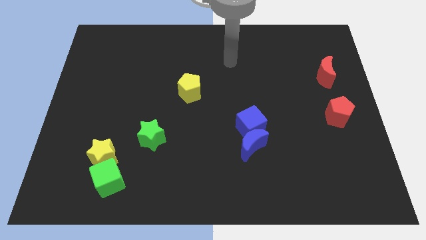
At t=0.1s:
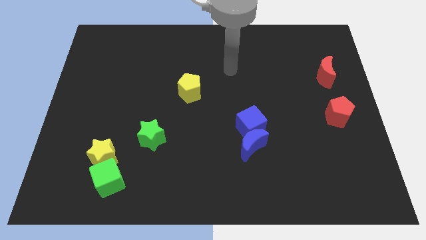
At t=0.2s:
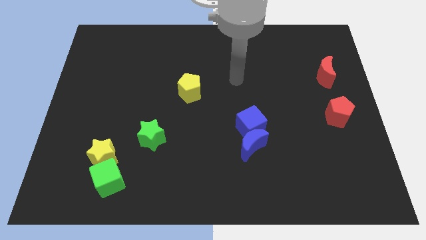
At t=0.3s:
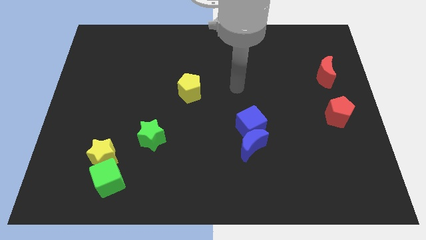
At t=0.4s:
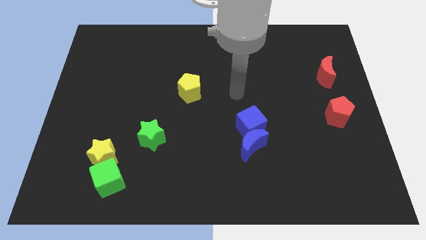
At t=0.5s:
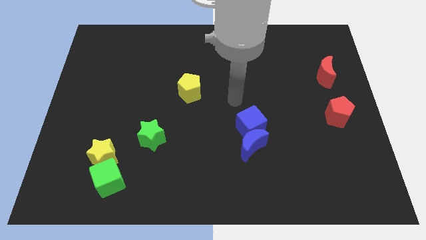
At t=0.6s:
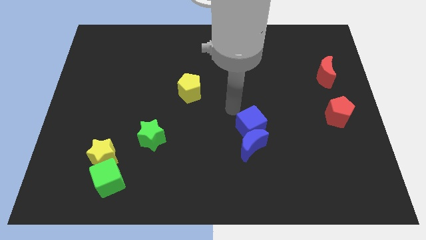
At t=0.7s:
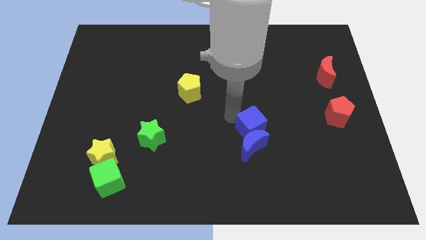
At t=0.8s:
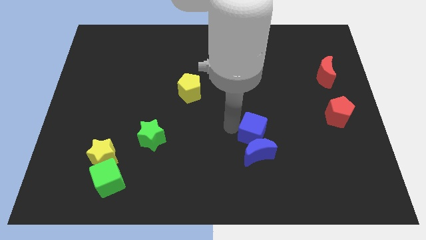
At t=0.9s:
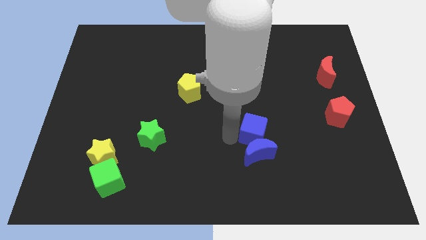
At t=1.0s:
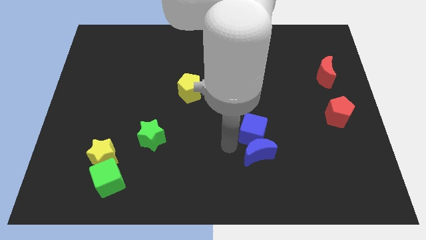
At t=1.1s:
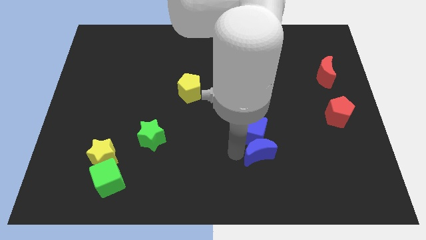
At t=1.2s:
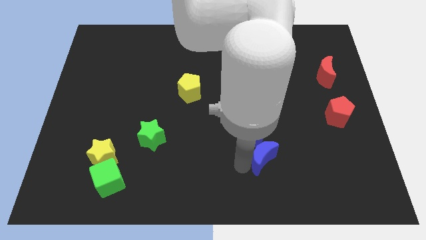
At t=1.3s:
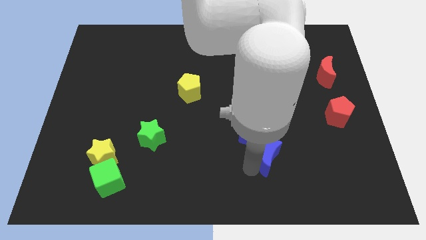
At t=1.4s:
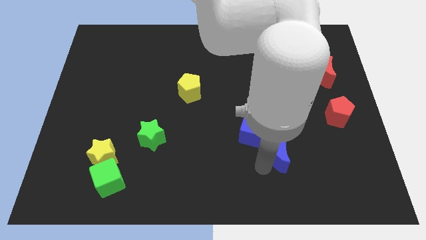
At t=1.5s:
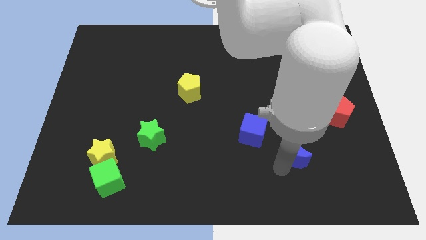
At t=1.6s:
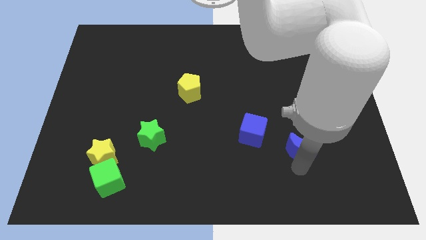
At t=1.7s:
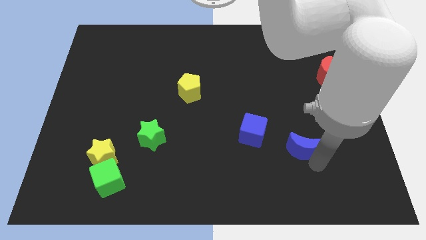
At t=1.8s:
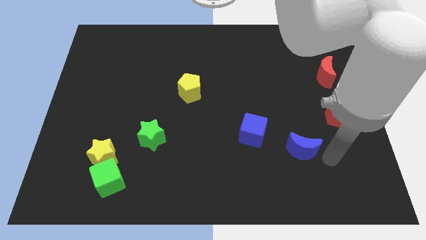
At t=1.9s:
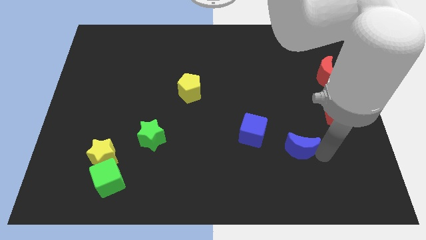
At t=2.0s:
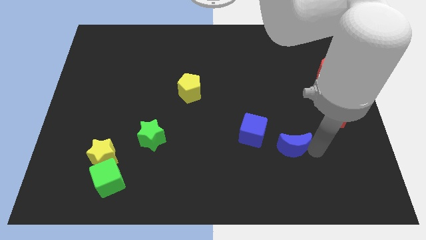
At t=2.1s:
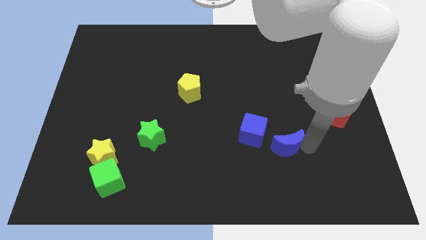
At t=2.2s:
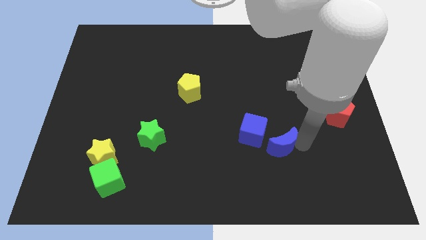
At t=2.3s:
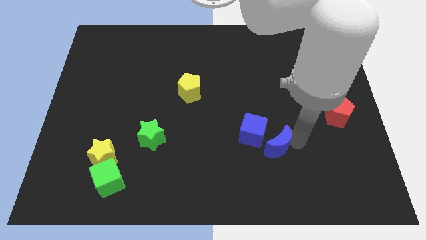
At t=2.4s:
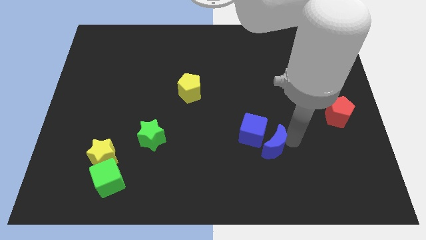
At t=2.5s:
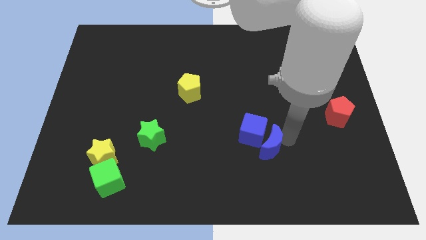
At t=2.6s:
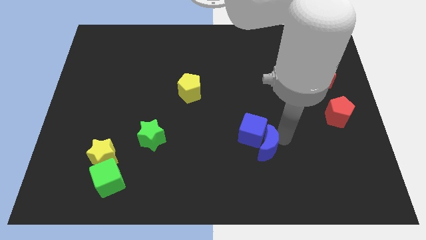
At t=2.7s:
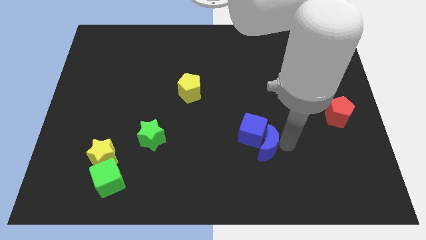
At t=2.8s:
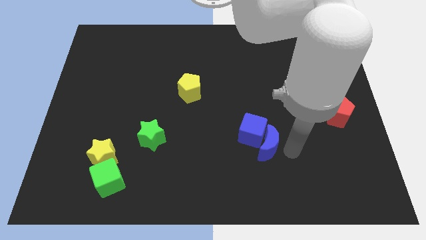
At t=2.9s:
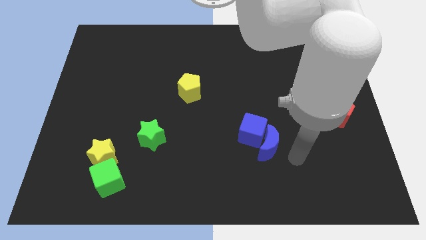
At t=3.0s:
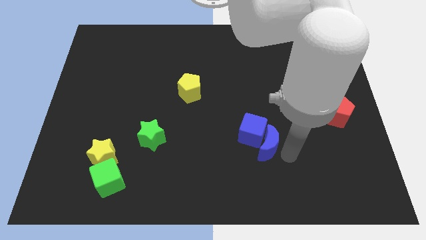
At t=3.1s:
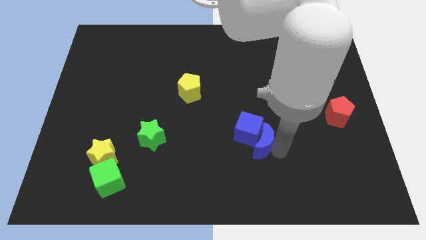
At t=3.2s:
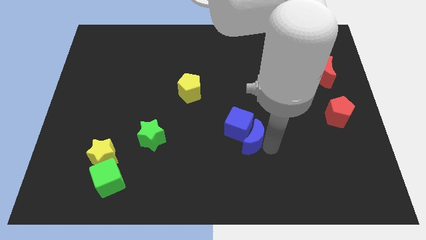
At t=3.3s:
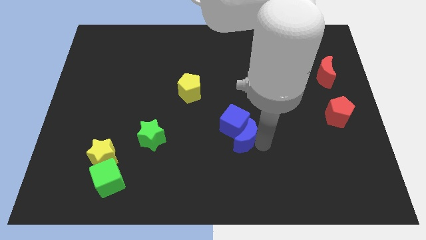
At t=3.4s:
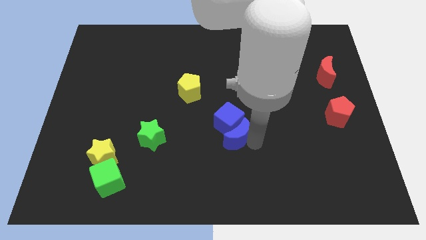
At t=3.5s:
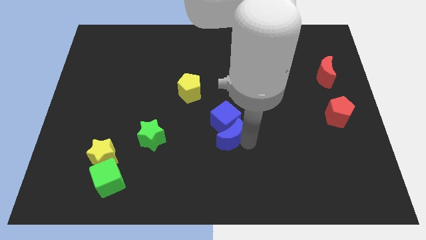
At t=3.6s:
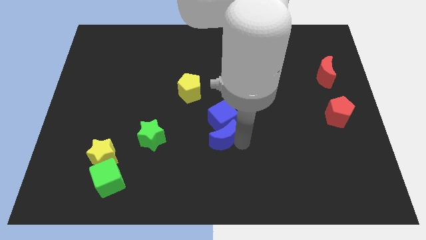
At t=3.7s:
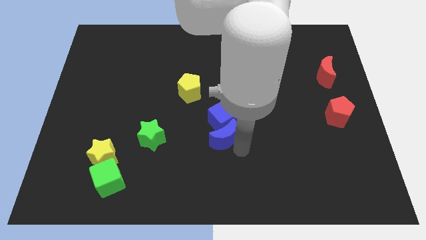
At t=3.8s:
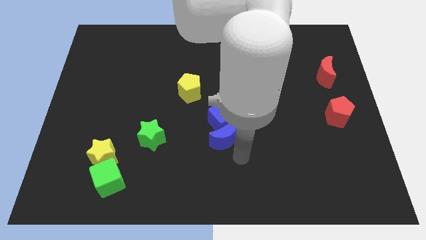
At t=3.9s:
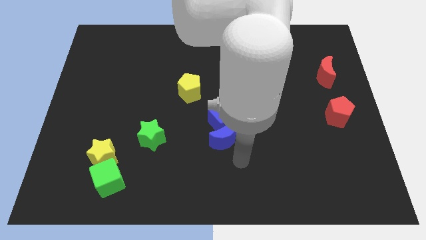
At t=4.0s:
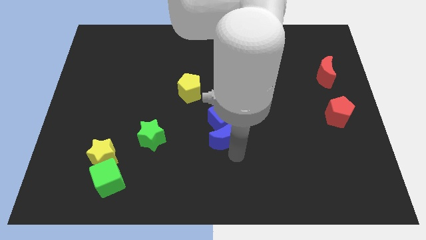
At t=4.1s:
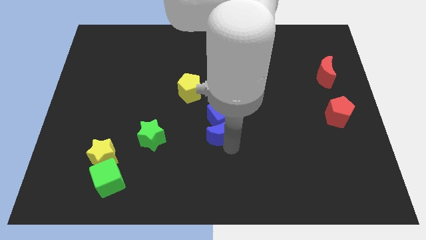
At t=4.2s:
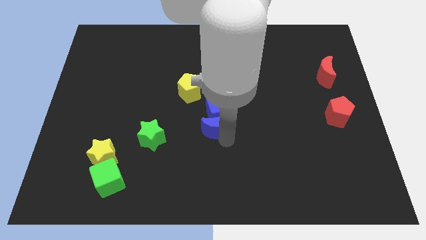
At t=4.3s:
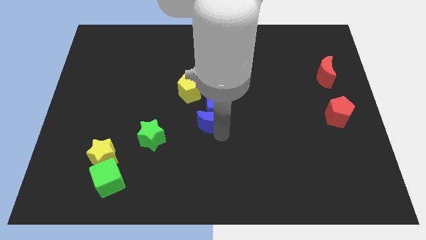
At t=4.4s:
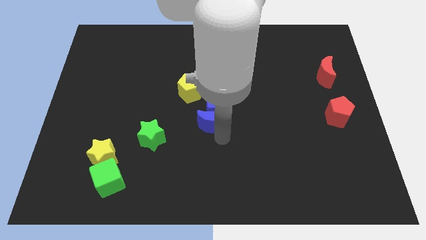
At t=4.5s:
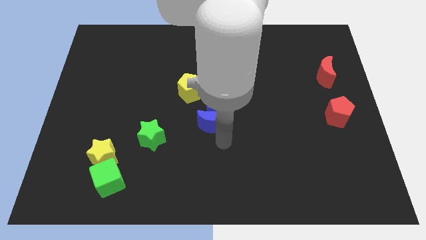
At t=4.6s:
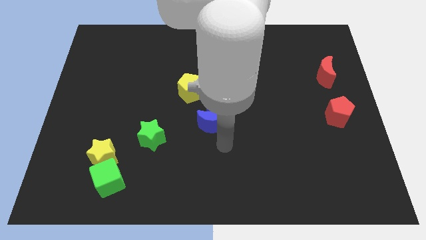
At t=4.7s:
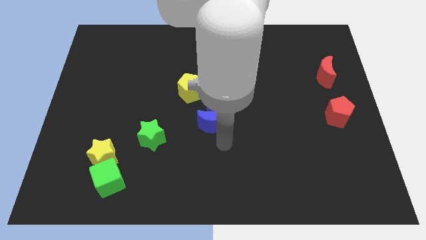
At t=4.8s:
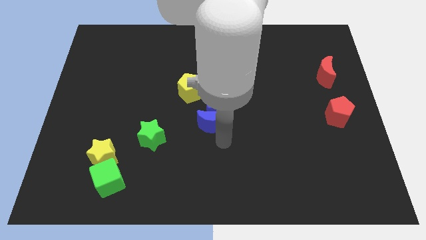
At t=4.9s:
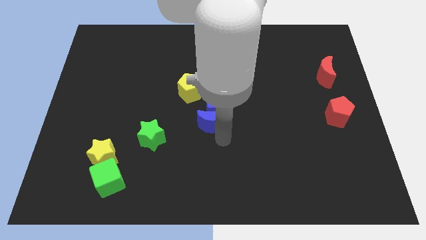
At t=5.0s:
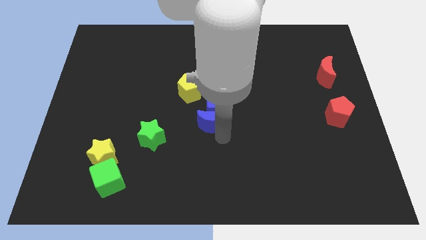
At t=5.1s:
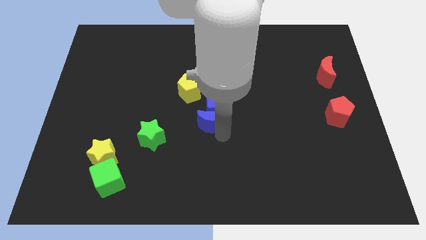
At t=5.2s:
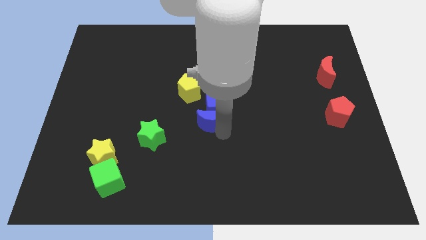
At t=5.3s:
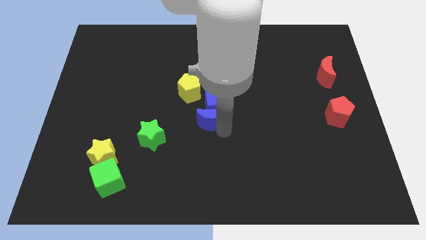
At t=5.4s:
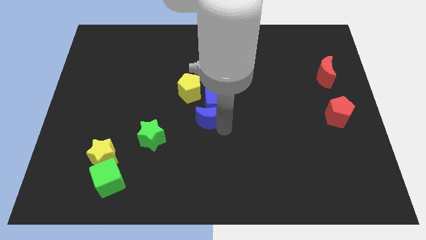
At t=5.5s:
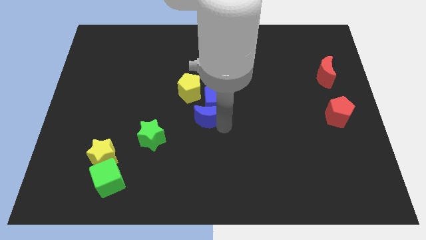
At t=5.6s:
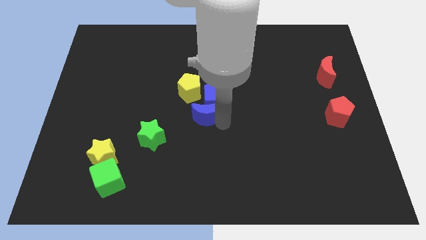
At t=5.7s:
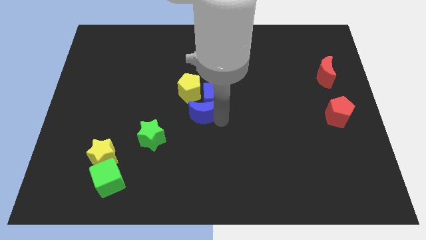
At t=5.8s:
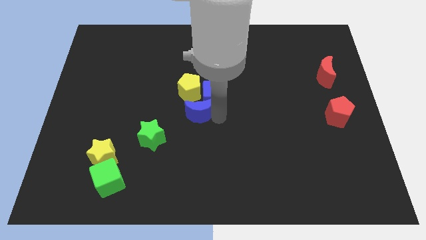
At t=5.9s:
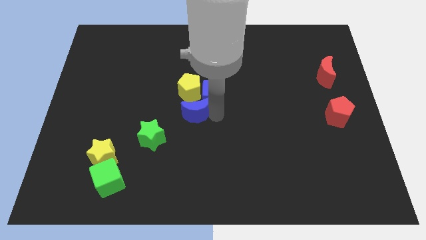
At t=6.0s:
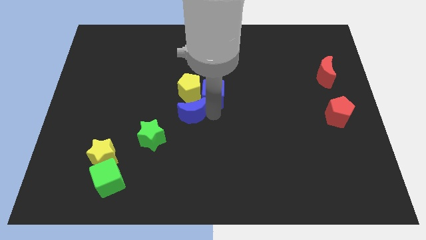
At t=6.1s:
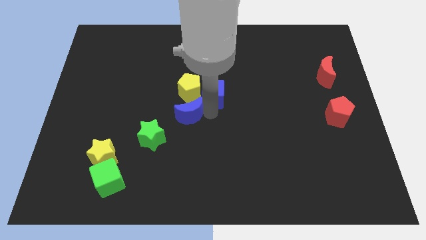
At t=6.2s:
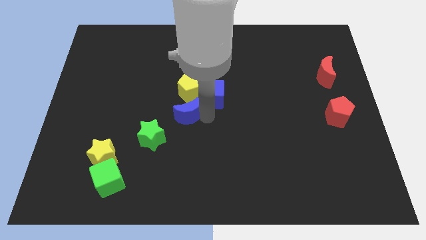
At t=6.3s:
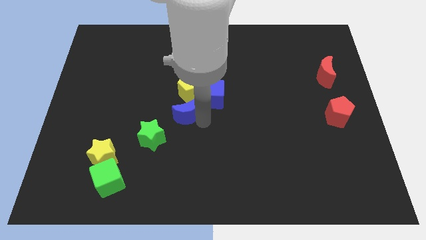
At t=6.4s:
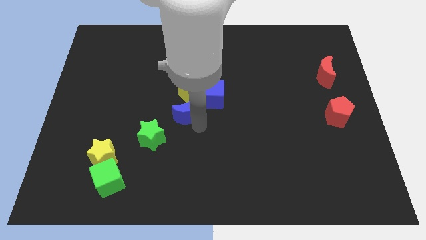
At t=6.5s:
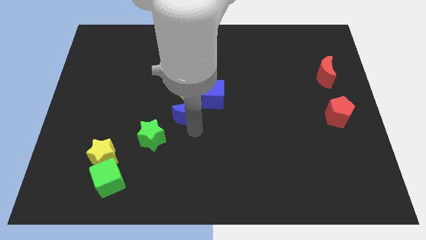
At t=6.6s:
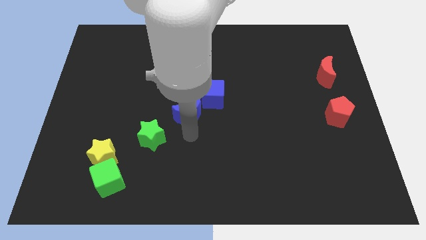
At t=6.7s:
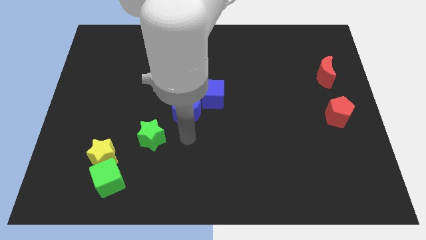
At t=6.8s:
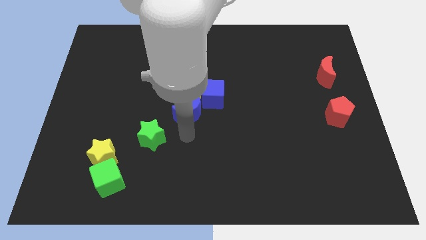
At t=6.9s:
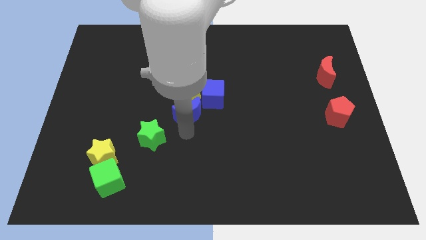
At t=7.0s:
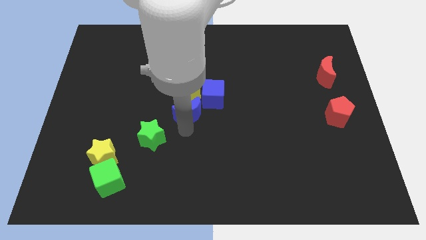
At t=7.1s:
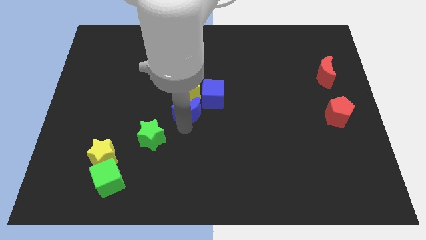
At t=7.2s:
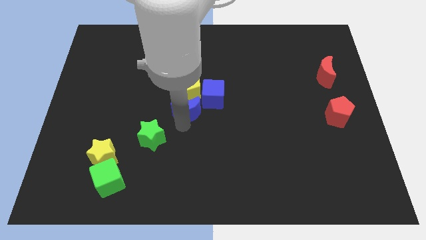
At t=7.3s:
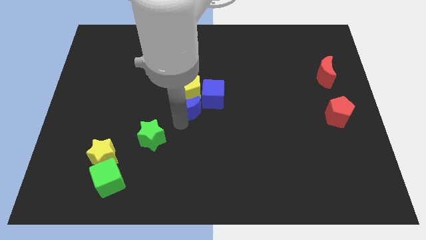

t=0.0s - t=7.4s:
put the blue moon close to the yellow pentagon
